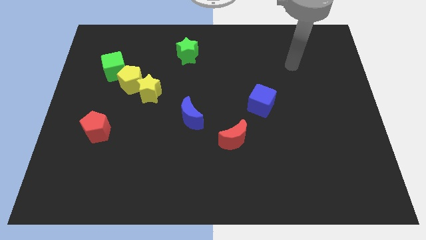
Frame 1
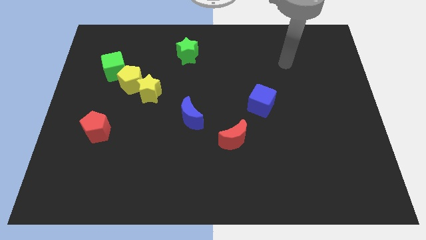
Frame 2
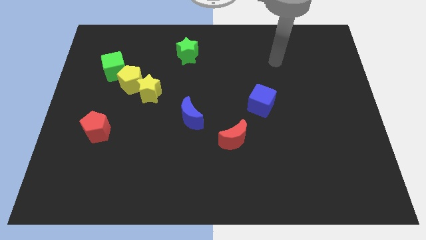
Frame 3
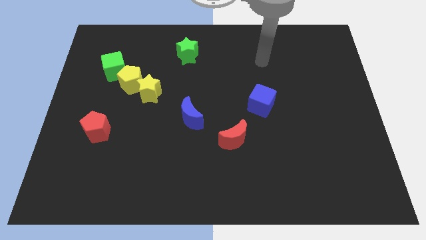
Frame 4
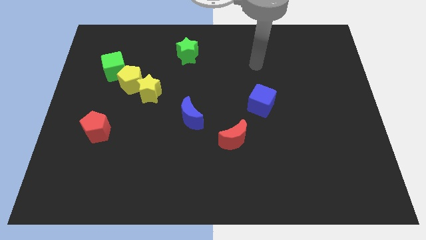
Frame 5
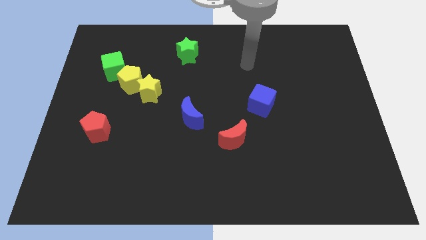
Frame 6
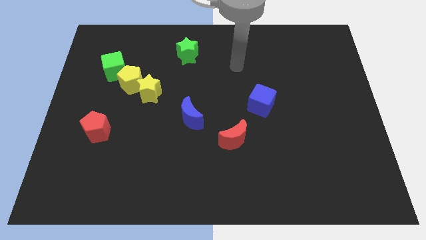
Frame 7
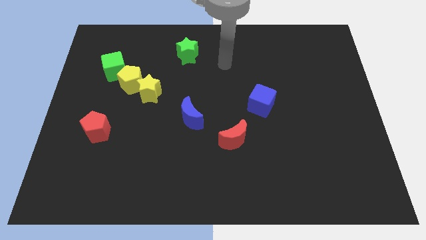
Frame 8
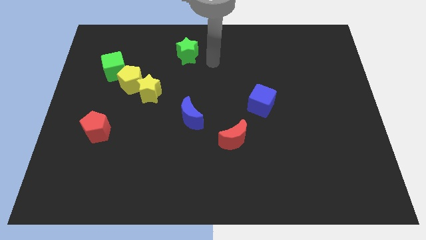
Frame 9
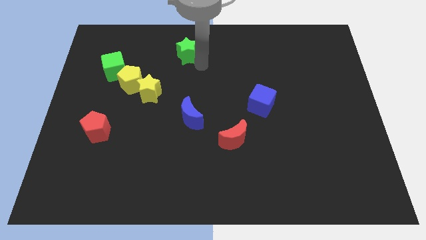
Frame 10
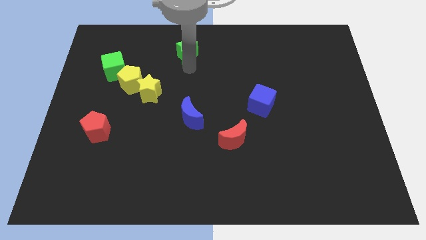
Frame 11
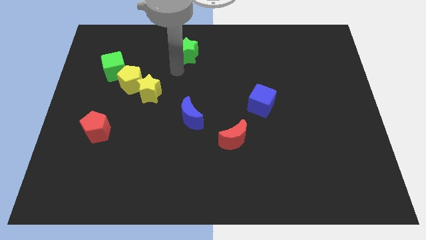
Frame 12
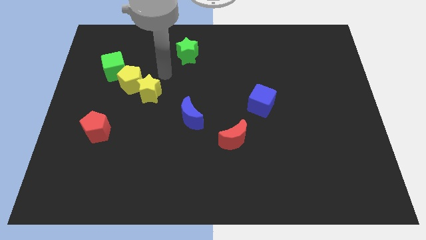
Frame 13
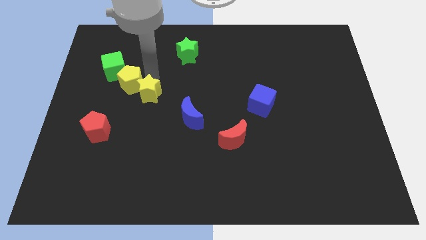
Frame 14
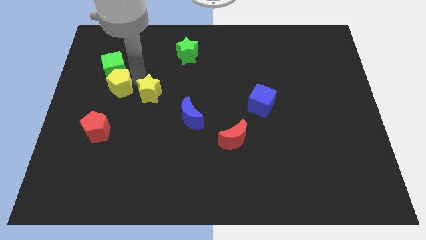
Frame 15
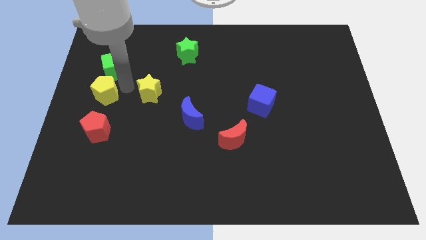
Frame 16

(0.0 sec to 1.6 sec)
move the yellow star away from the yellow pentagon

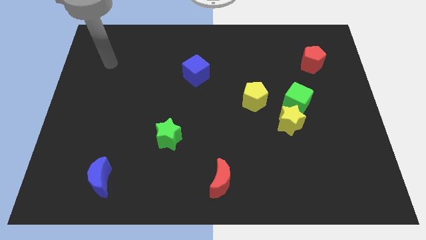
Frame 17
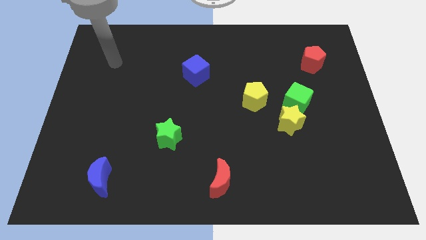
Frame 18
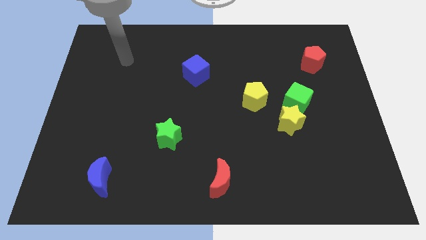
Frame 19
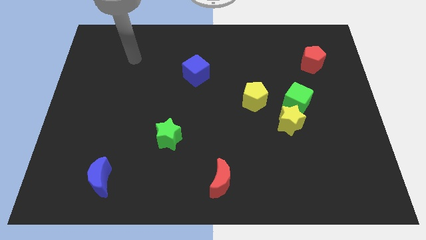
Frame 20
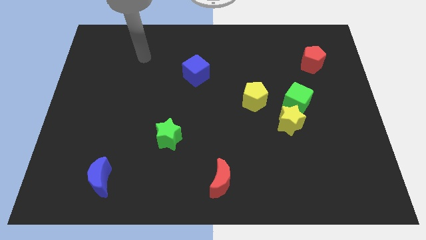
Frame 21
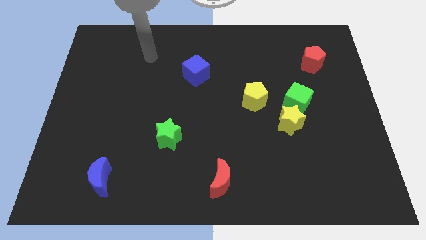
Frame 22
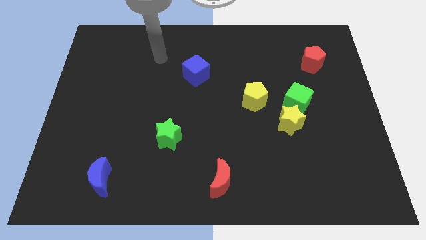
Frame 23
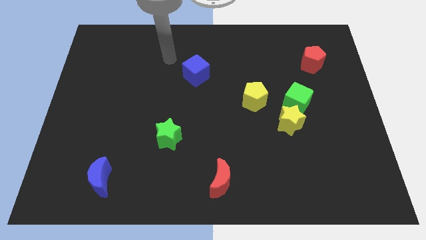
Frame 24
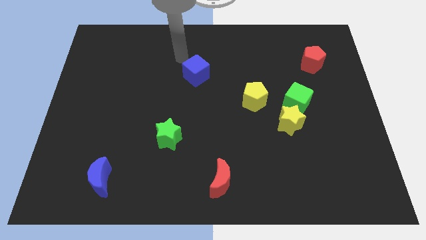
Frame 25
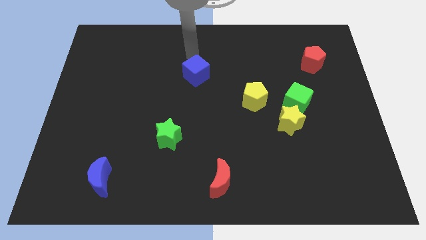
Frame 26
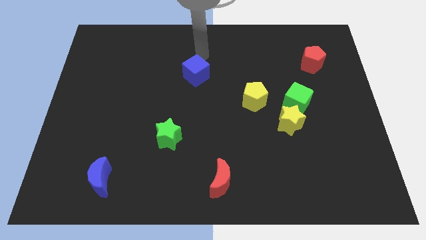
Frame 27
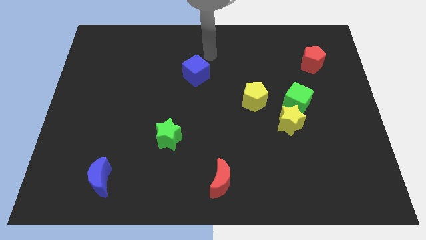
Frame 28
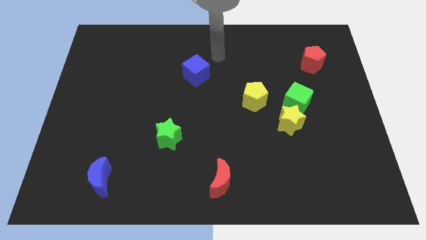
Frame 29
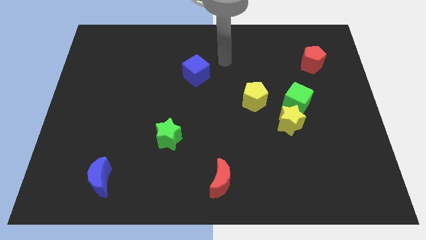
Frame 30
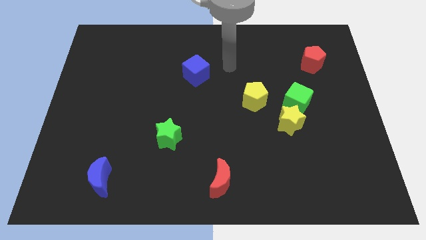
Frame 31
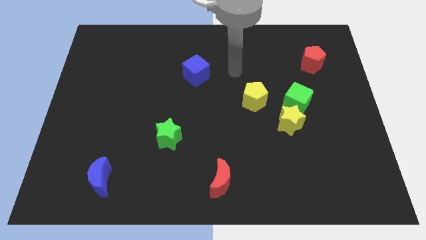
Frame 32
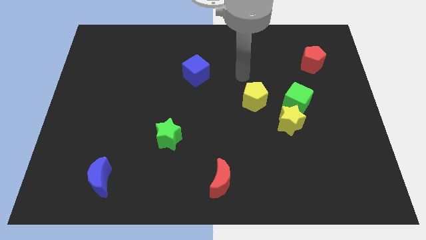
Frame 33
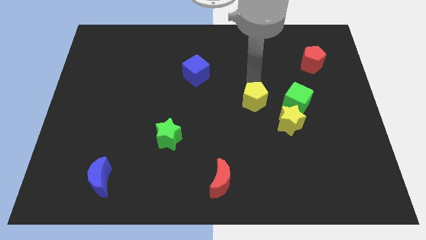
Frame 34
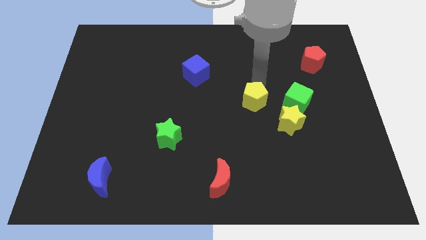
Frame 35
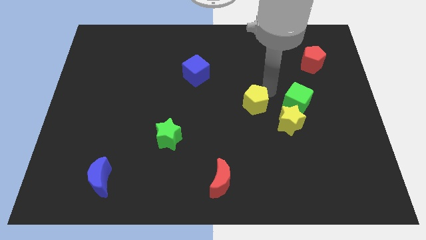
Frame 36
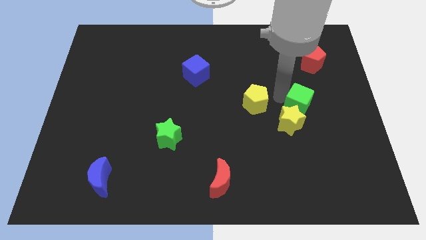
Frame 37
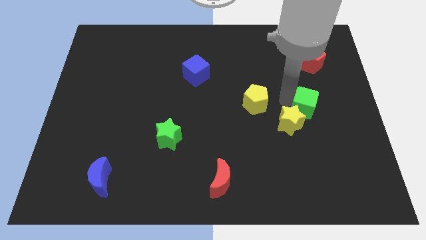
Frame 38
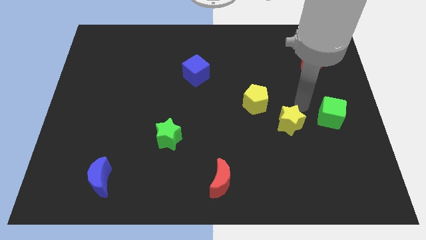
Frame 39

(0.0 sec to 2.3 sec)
pull the yellow star apart from the green cube

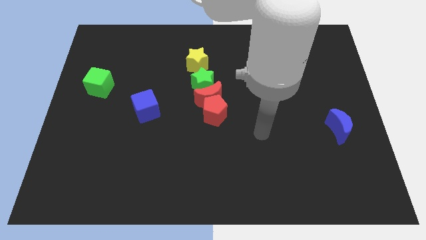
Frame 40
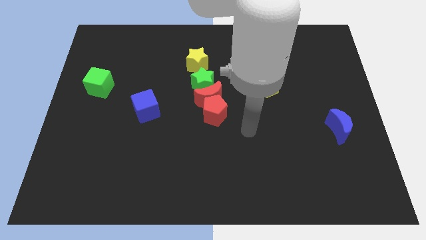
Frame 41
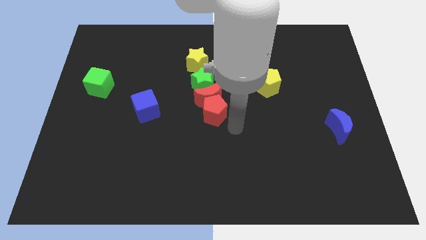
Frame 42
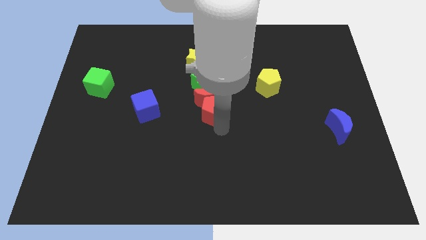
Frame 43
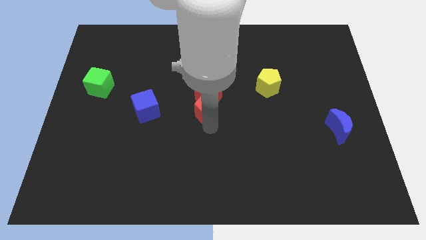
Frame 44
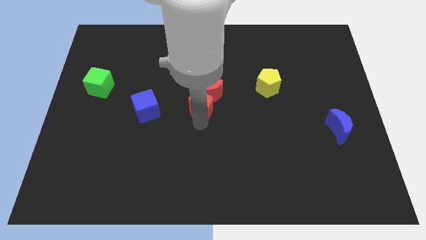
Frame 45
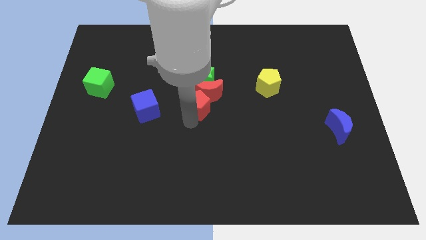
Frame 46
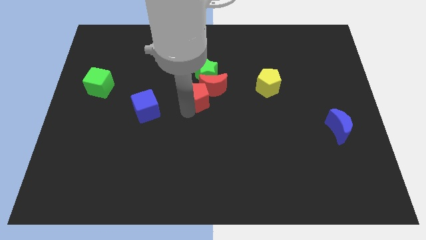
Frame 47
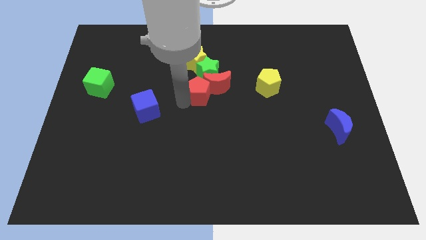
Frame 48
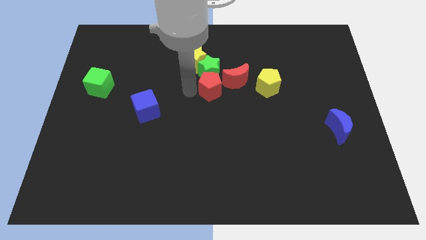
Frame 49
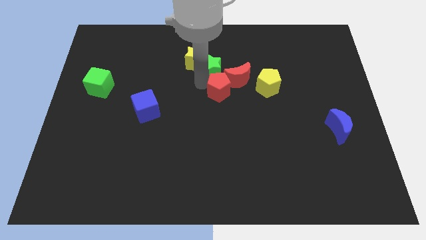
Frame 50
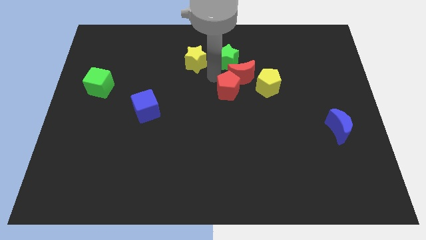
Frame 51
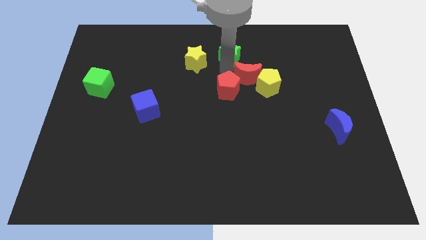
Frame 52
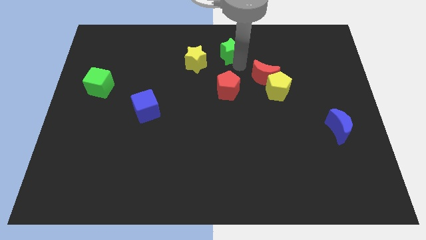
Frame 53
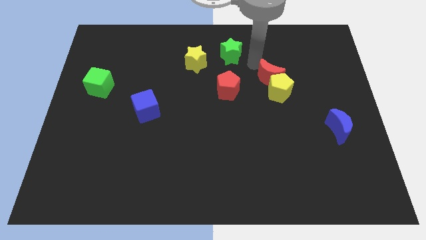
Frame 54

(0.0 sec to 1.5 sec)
move the red moon away from the red pentagon and green star

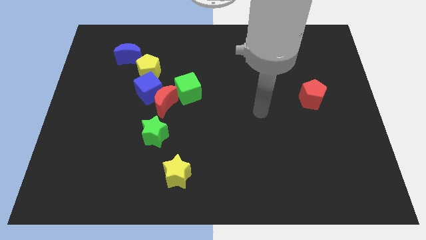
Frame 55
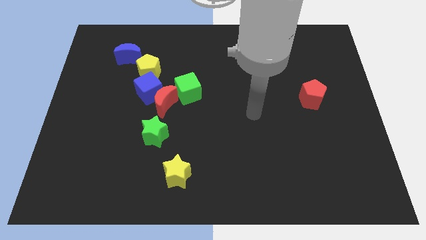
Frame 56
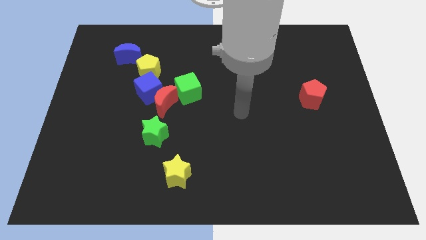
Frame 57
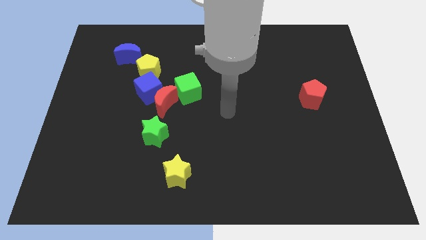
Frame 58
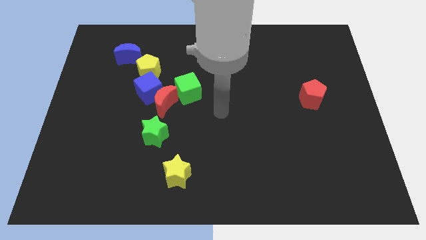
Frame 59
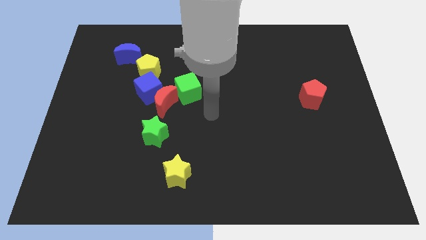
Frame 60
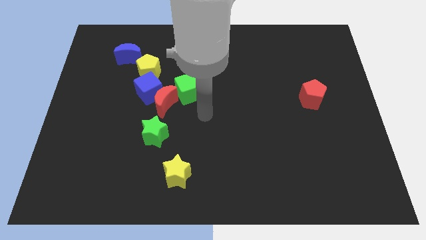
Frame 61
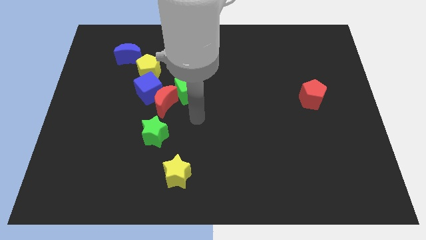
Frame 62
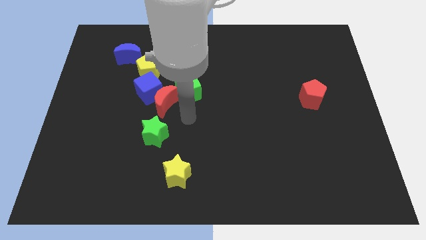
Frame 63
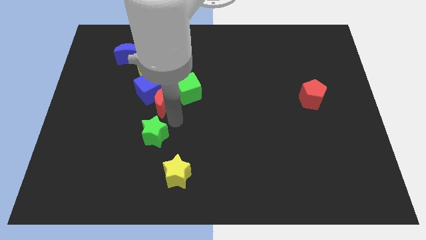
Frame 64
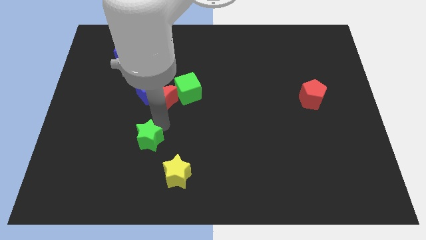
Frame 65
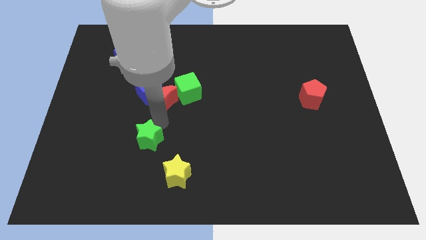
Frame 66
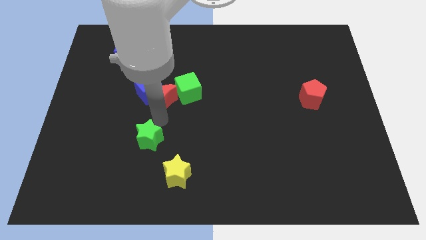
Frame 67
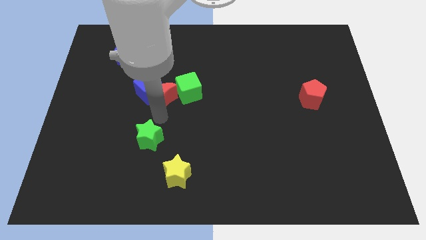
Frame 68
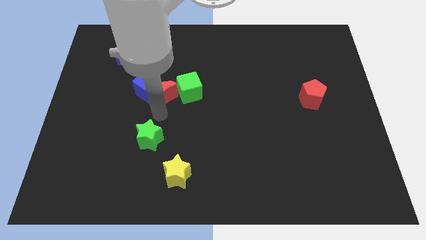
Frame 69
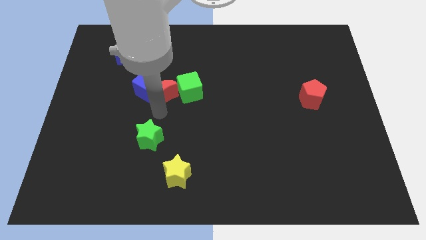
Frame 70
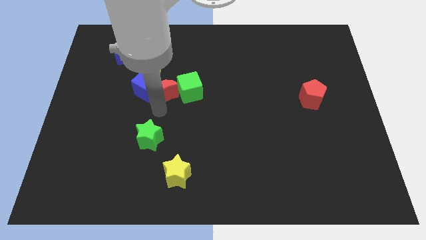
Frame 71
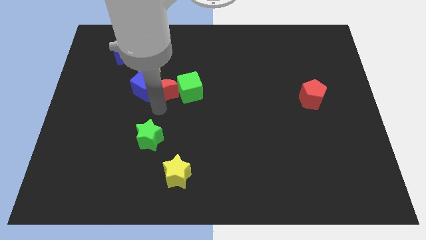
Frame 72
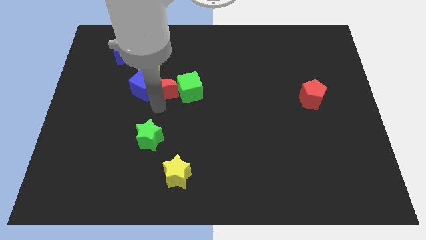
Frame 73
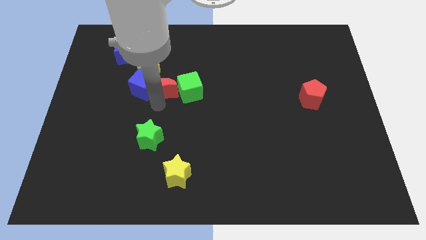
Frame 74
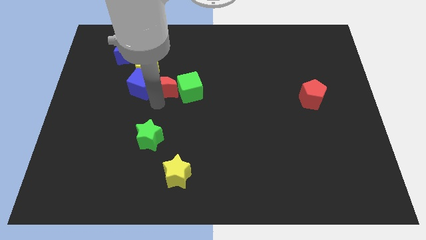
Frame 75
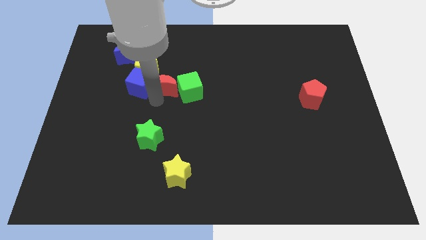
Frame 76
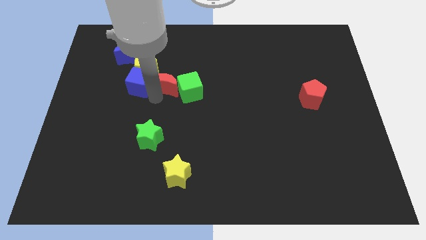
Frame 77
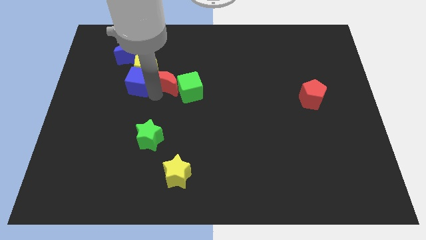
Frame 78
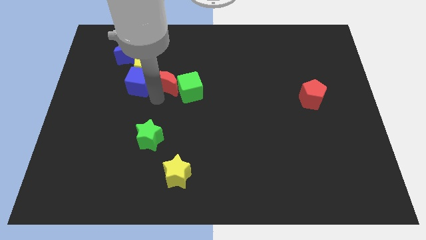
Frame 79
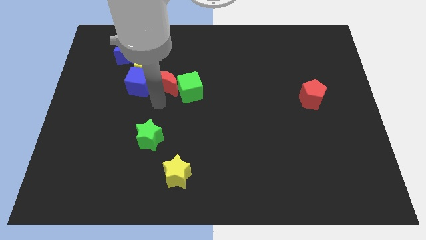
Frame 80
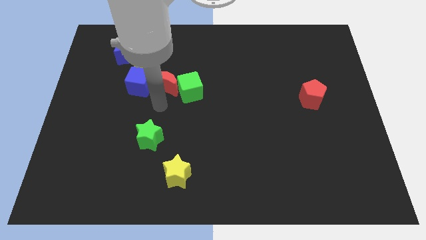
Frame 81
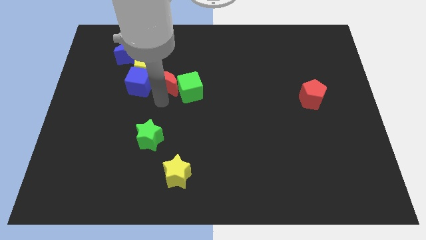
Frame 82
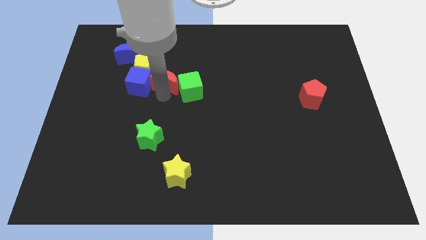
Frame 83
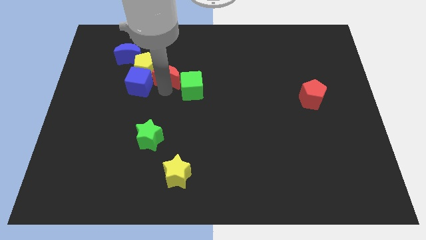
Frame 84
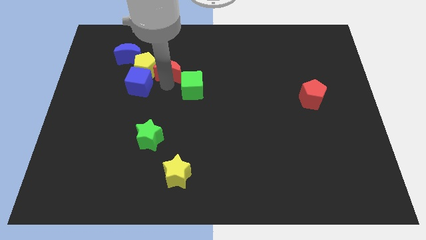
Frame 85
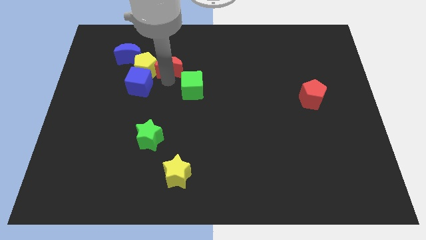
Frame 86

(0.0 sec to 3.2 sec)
pull the red moon apart from the blue cube, green cube, and green star

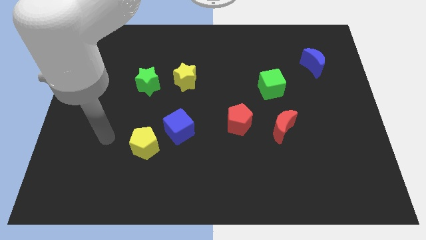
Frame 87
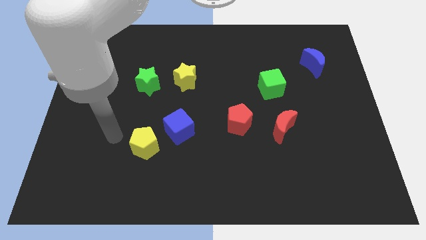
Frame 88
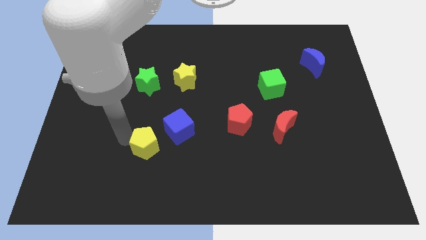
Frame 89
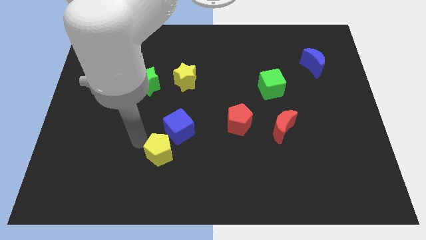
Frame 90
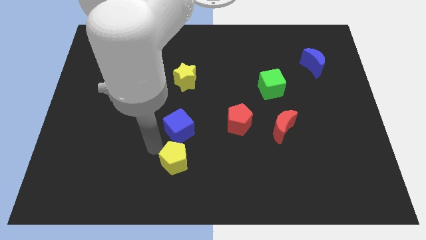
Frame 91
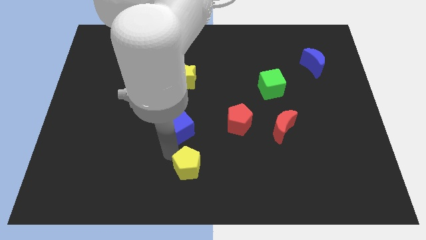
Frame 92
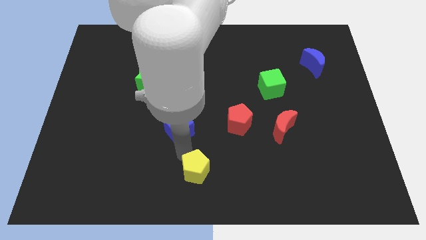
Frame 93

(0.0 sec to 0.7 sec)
separate the blue cube from the yellow pentagon

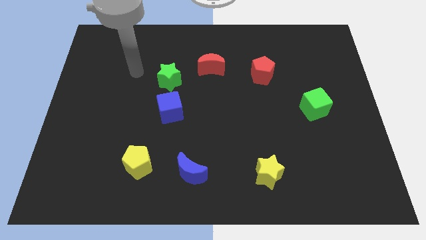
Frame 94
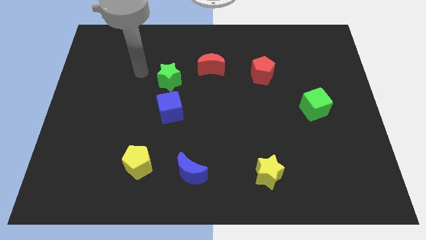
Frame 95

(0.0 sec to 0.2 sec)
separate the blue cube from the green star
